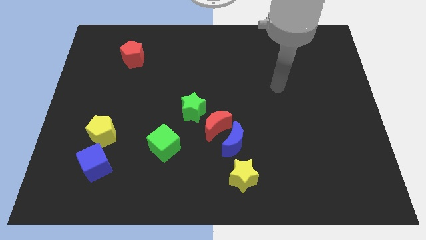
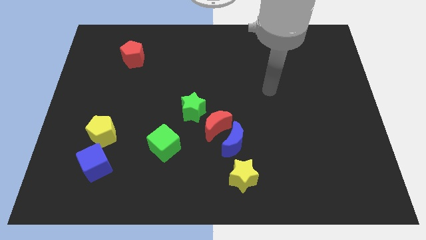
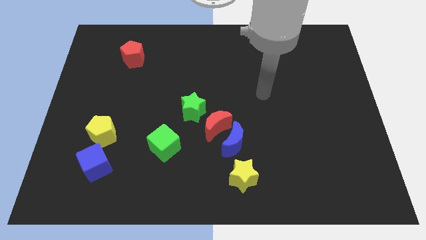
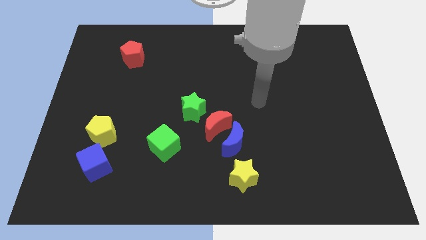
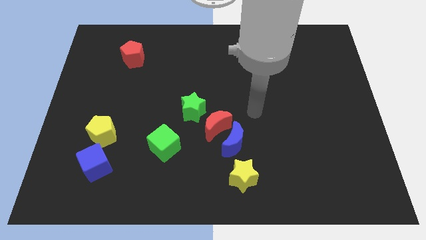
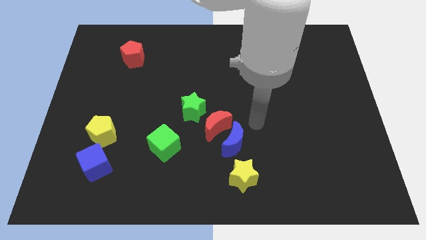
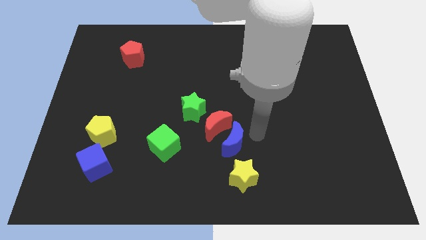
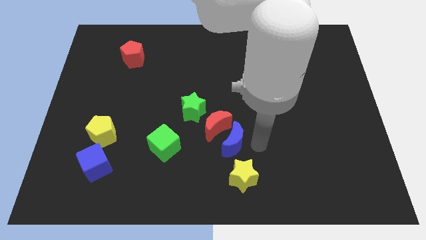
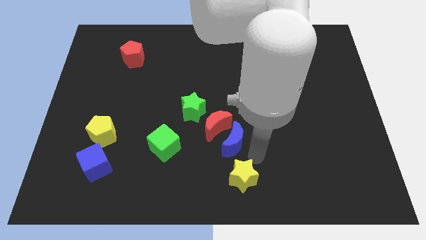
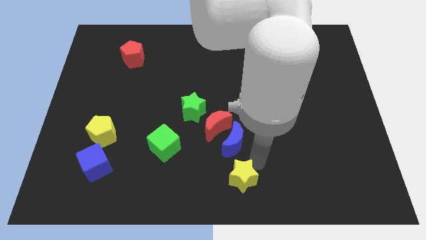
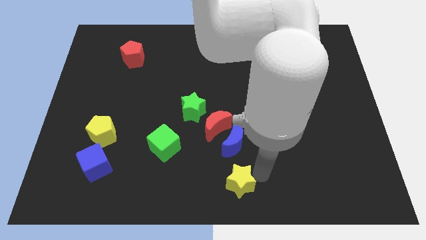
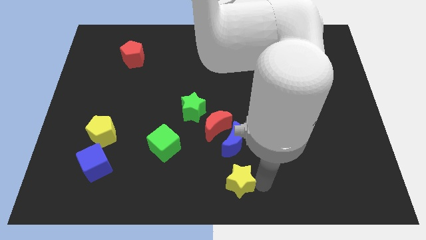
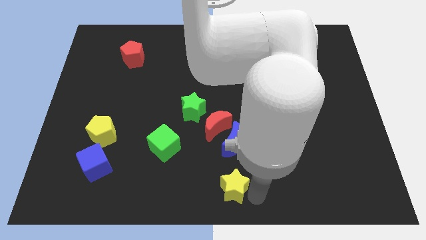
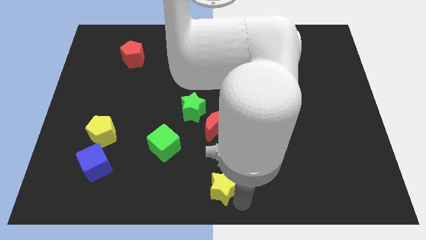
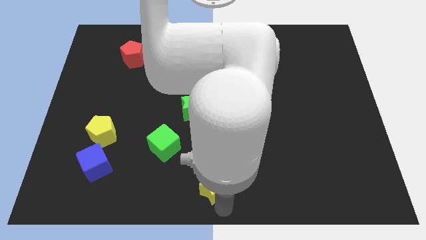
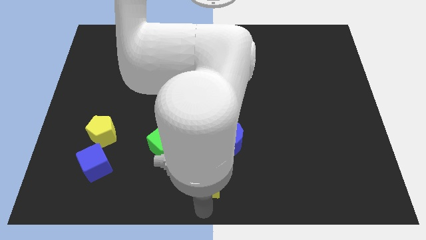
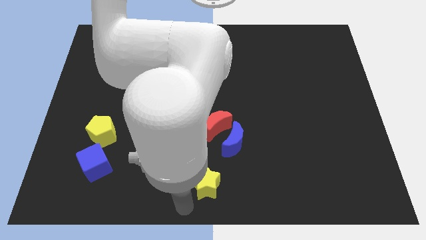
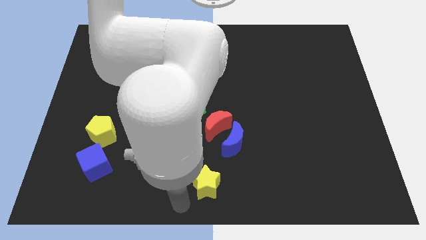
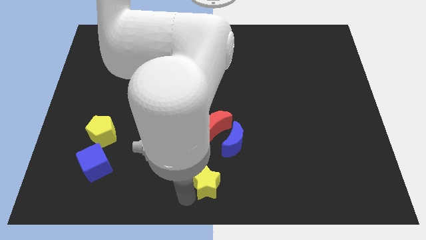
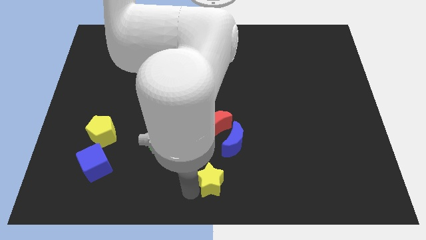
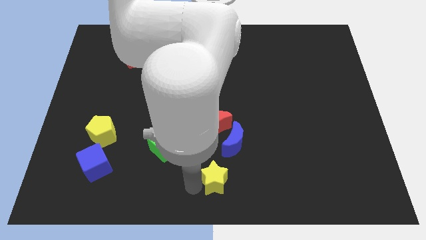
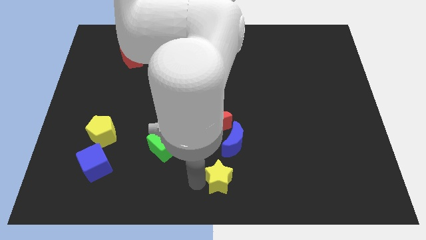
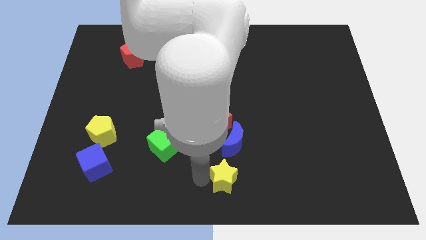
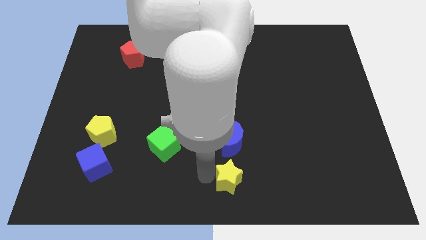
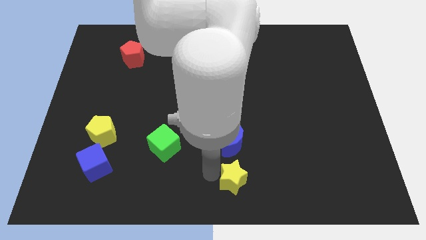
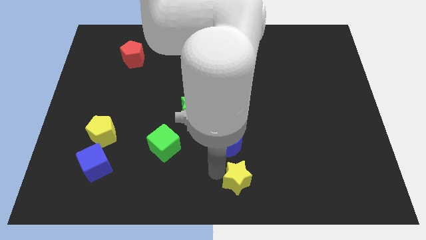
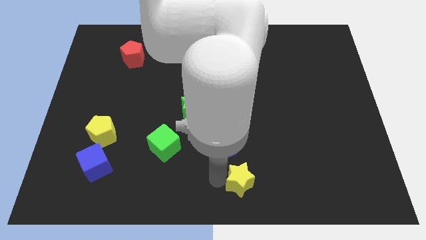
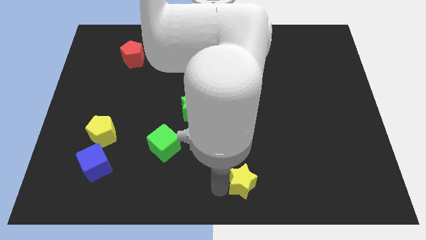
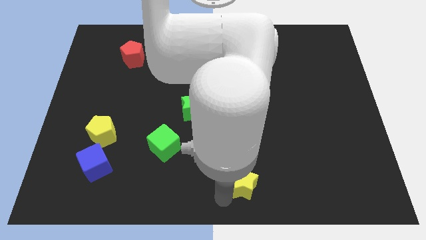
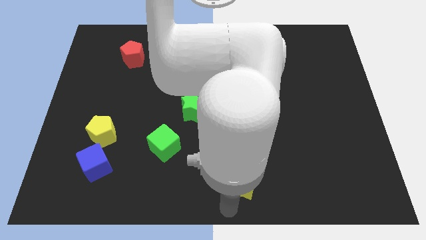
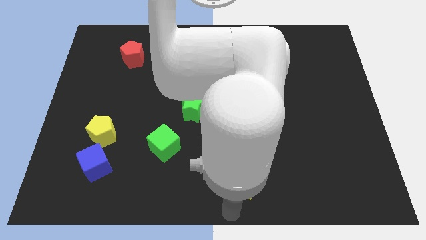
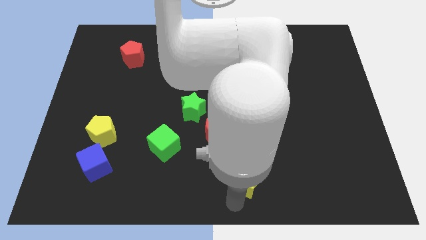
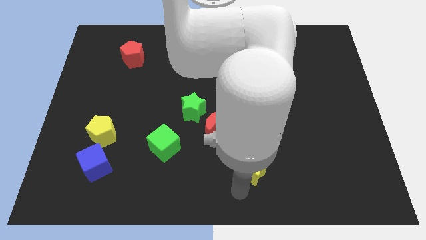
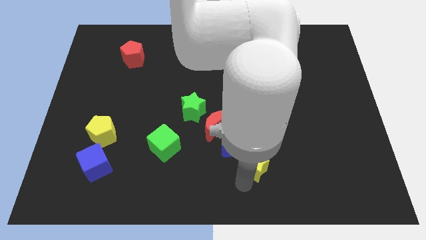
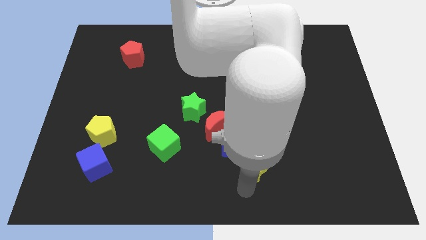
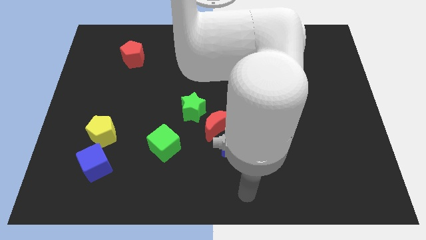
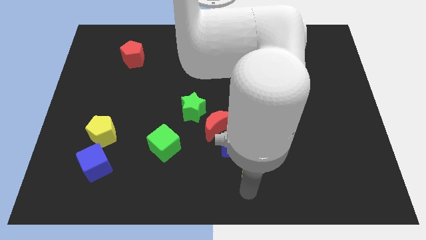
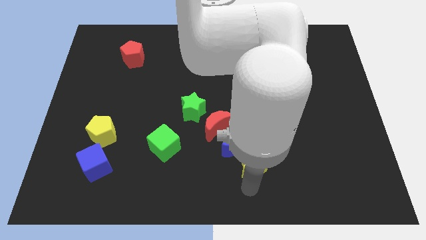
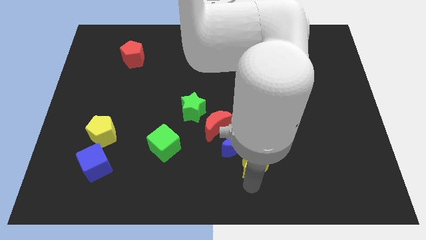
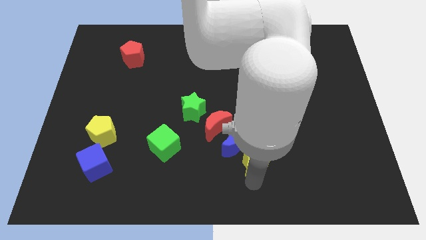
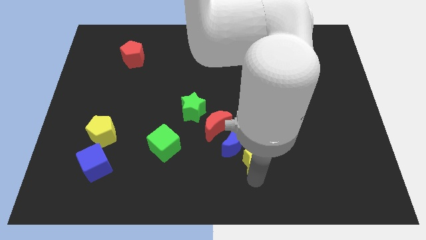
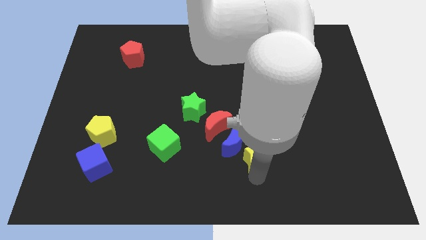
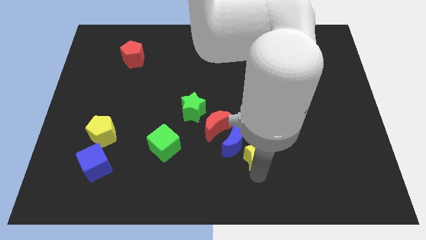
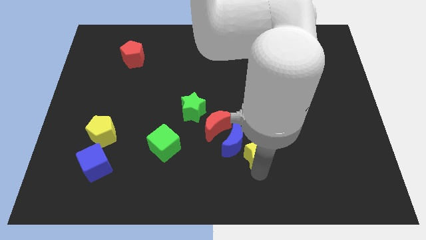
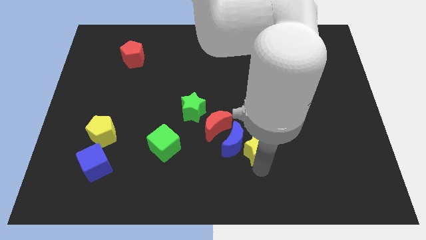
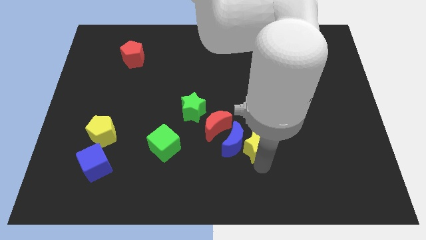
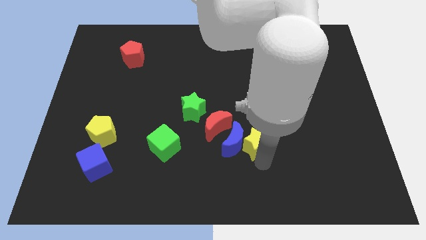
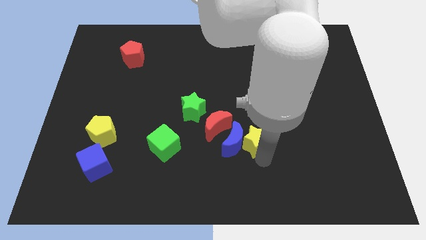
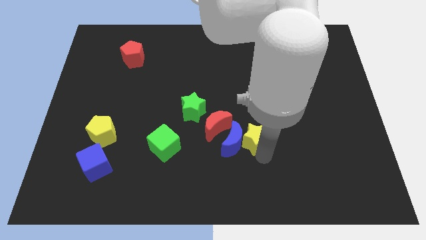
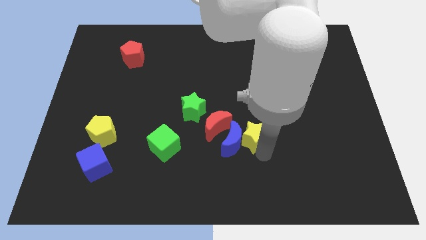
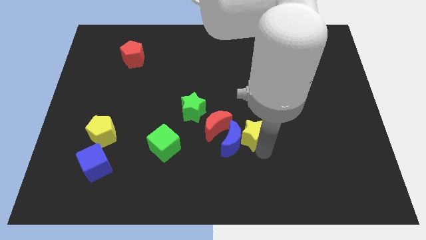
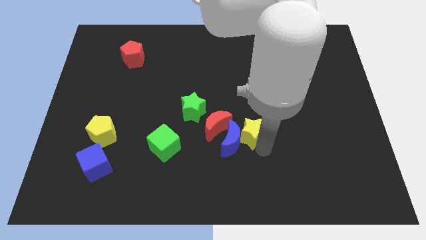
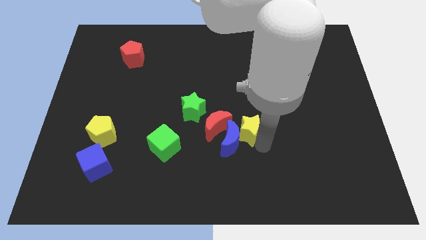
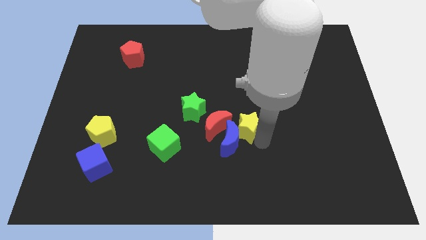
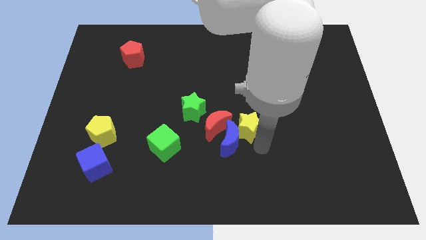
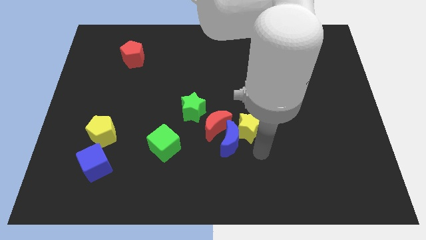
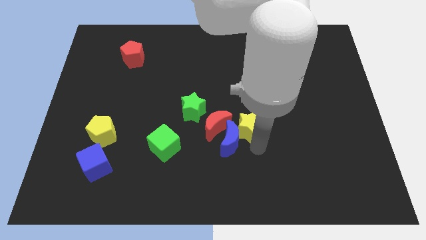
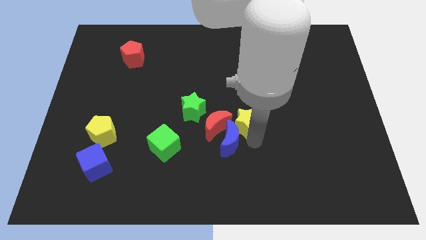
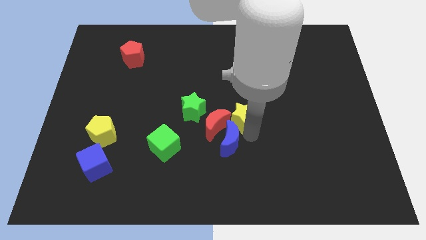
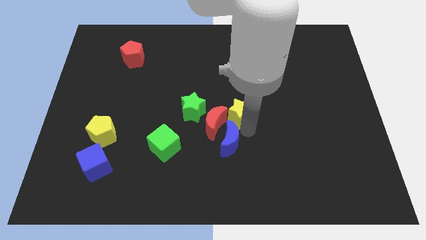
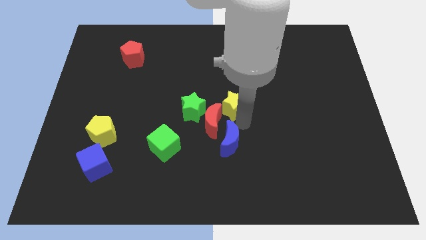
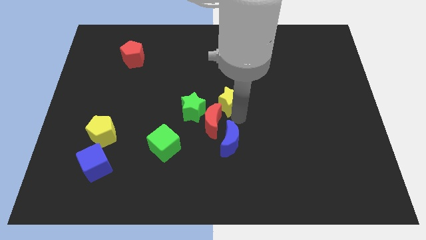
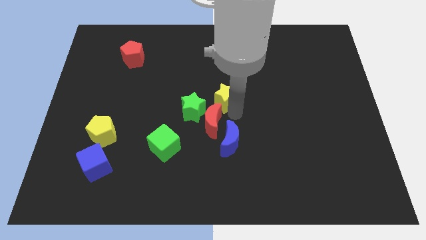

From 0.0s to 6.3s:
push the yellow star upwards

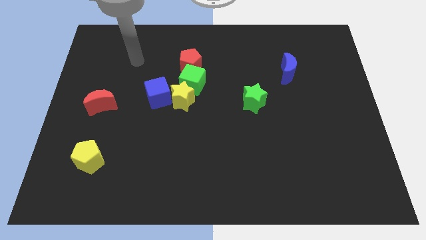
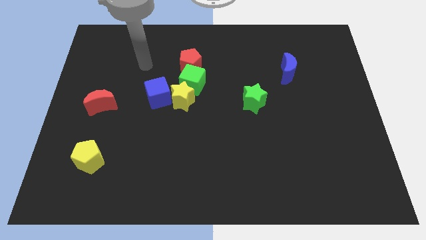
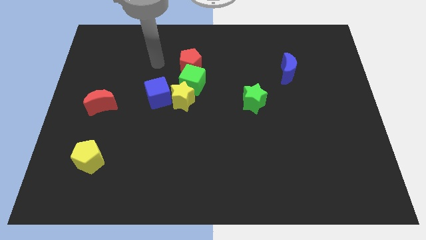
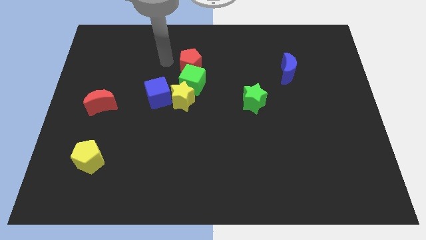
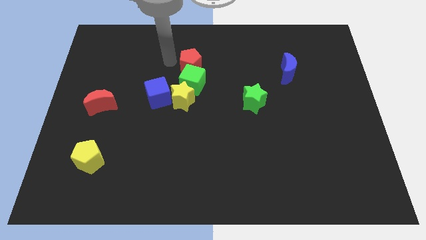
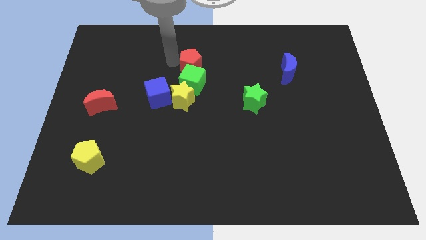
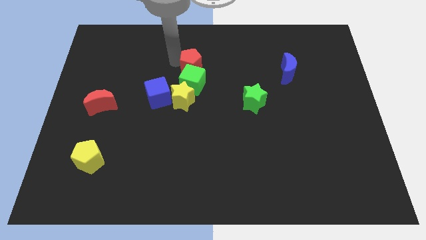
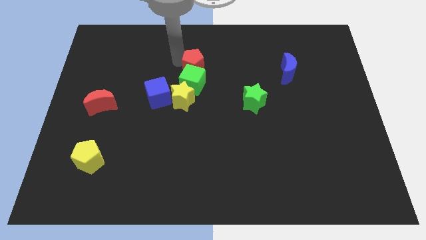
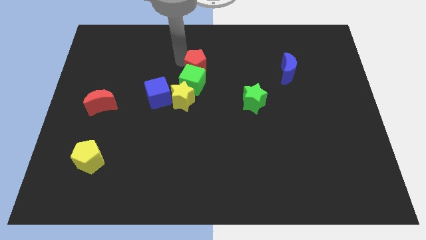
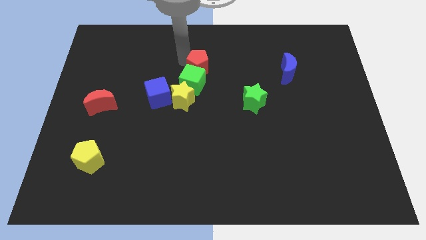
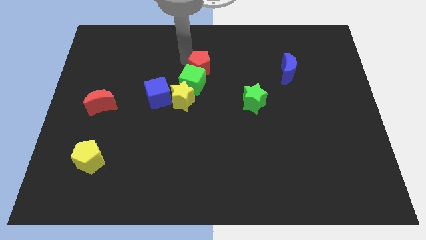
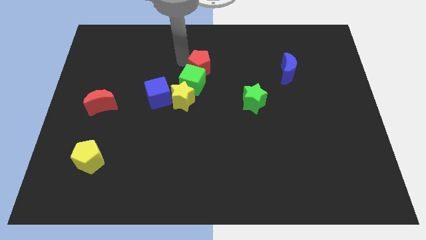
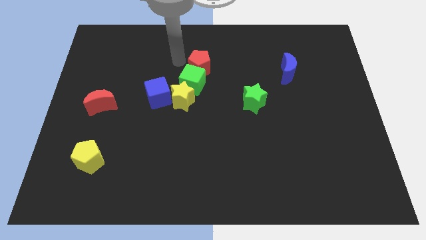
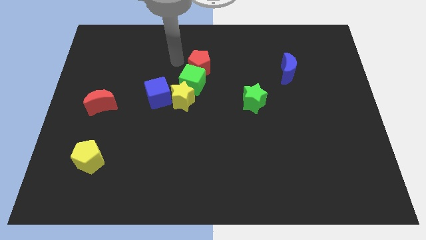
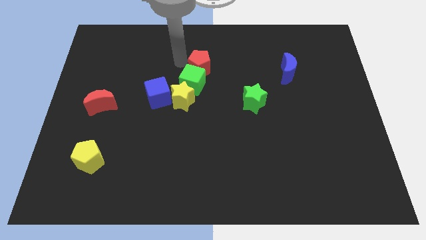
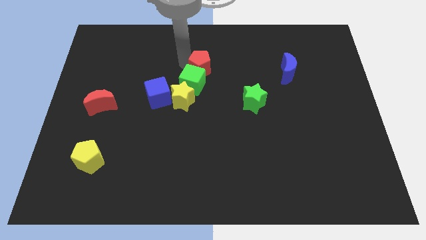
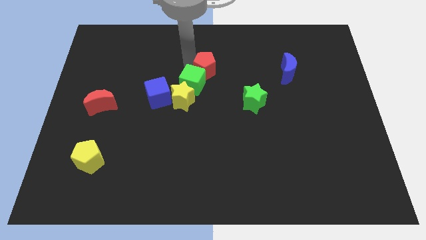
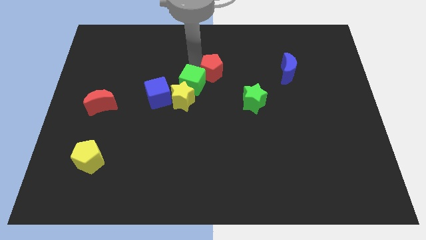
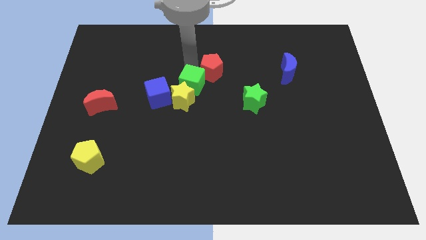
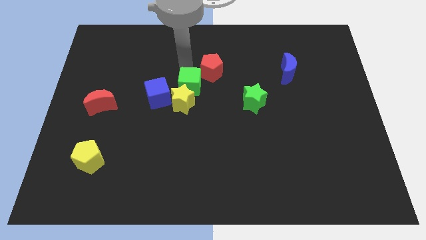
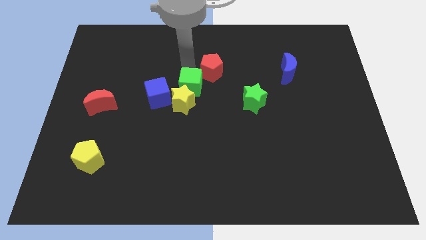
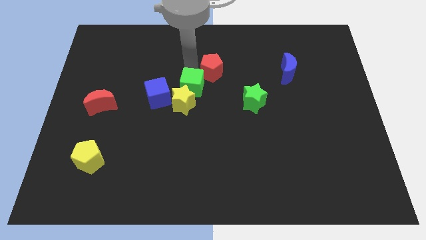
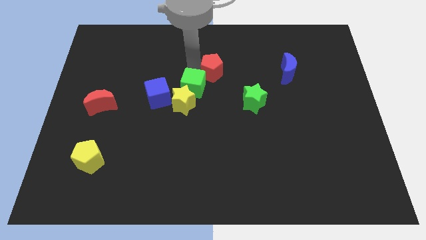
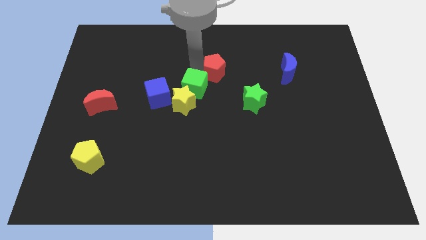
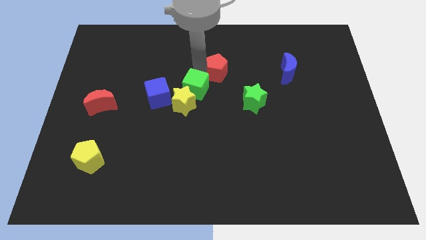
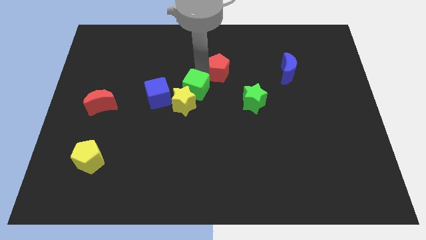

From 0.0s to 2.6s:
push the red pentagon to the right a little bit
